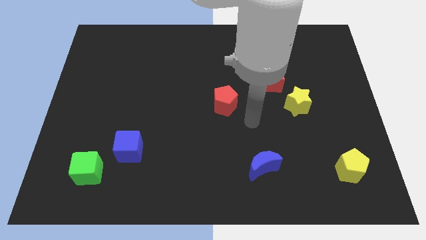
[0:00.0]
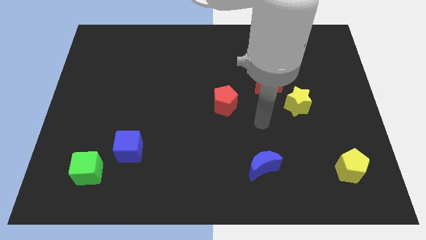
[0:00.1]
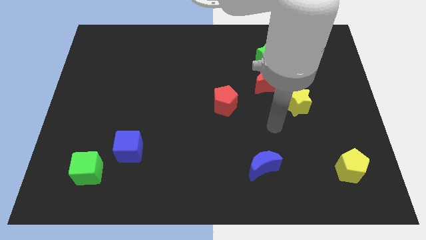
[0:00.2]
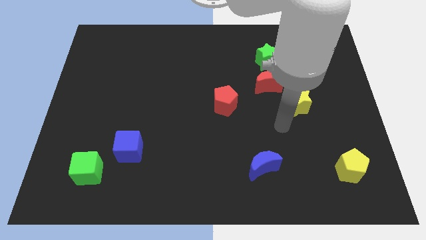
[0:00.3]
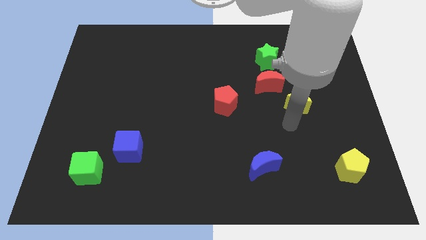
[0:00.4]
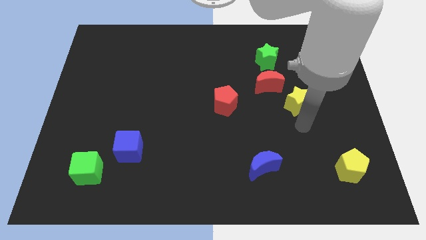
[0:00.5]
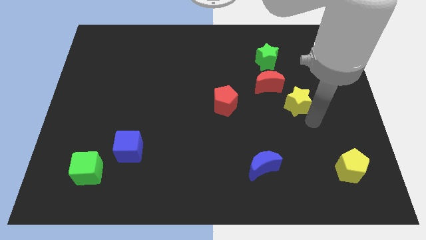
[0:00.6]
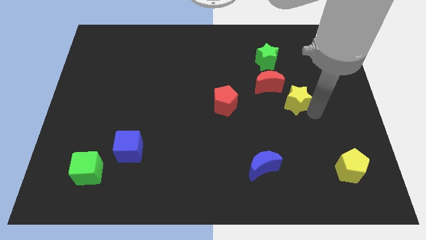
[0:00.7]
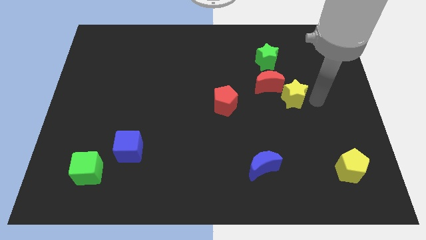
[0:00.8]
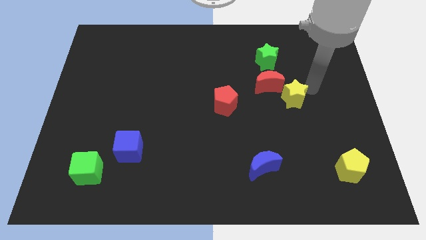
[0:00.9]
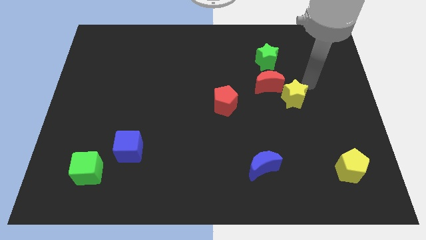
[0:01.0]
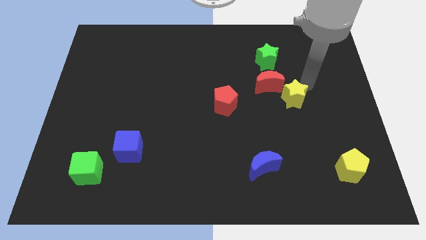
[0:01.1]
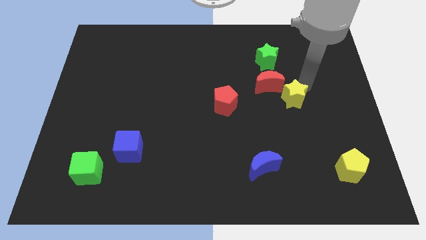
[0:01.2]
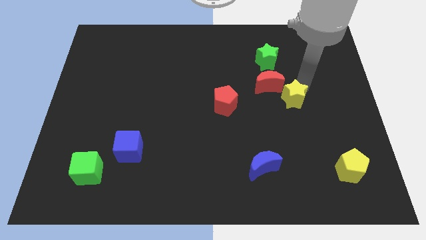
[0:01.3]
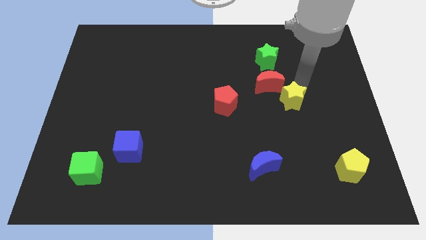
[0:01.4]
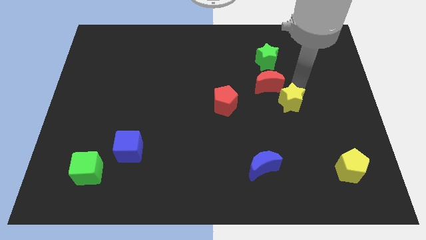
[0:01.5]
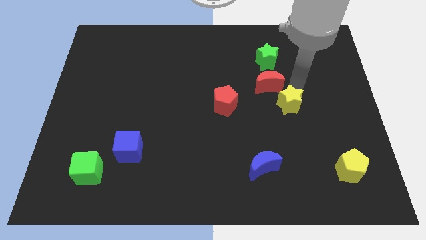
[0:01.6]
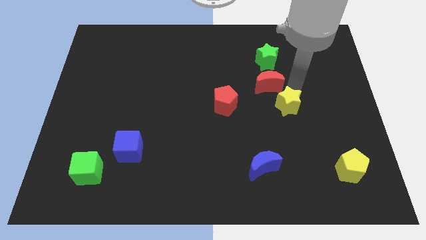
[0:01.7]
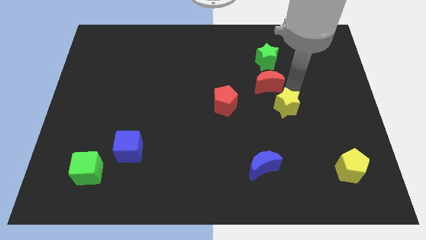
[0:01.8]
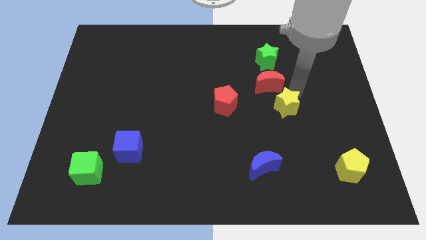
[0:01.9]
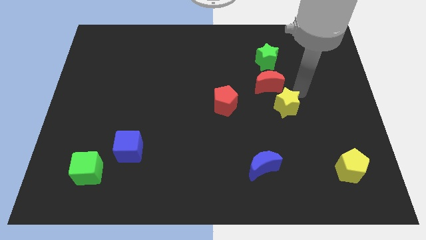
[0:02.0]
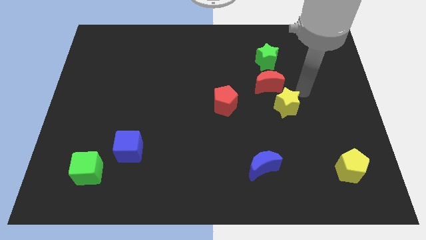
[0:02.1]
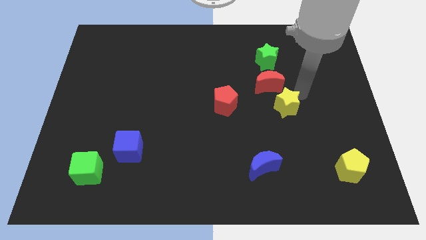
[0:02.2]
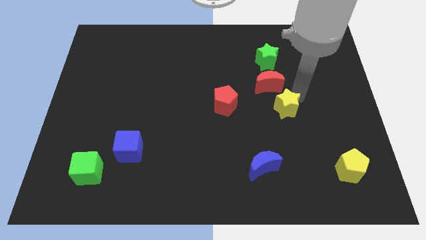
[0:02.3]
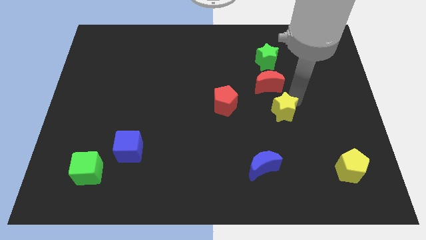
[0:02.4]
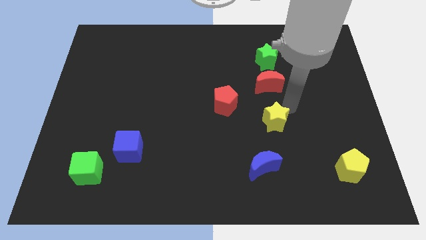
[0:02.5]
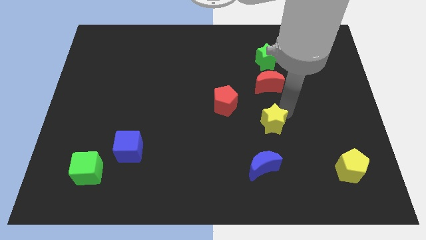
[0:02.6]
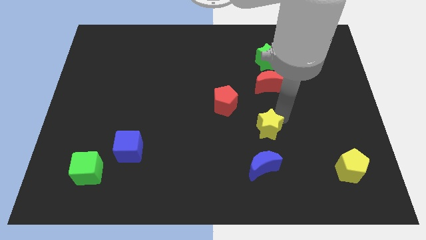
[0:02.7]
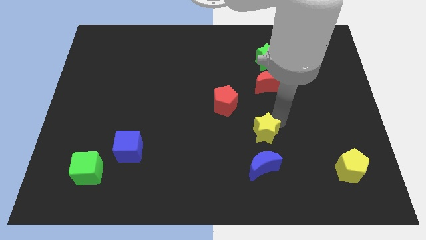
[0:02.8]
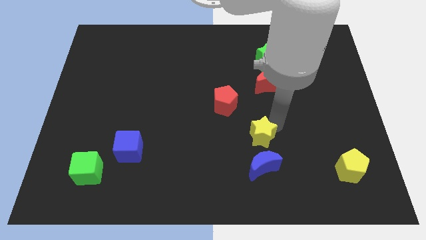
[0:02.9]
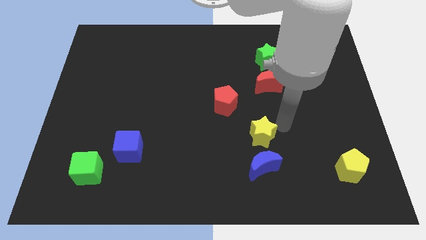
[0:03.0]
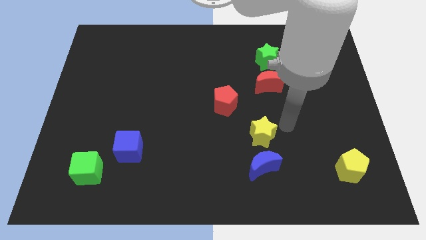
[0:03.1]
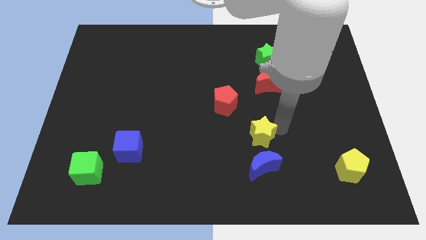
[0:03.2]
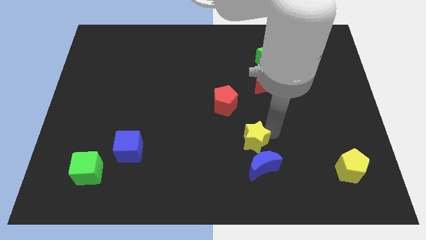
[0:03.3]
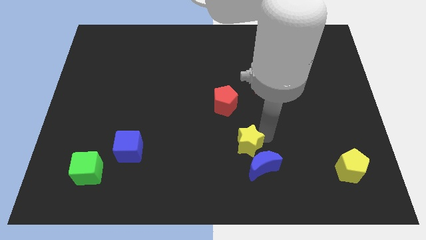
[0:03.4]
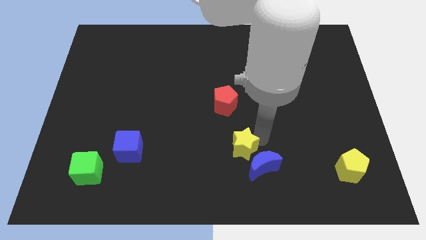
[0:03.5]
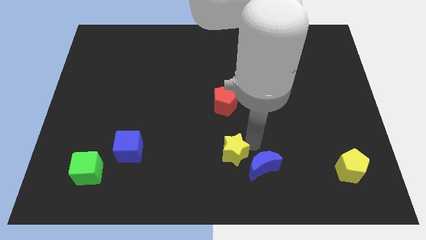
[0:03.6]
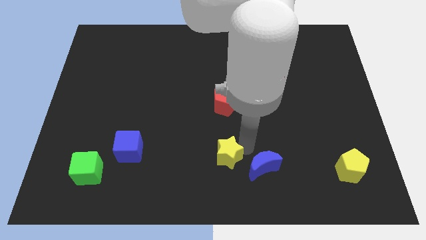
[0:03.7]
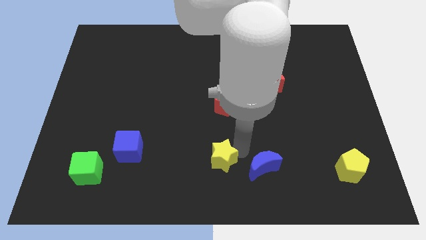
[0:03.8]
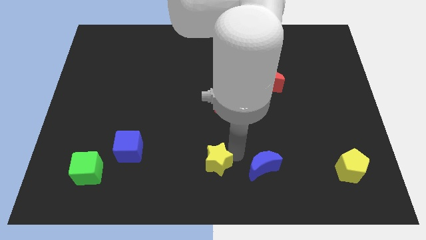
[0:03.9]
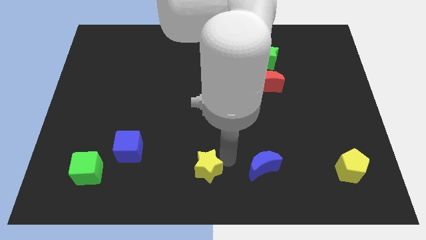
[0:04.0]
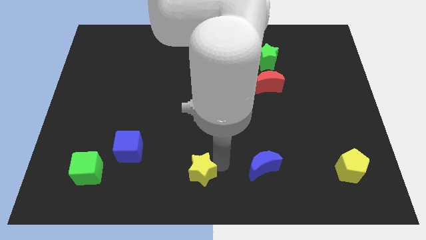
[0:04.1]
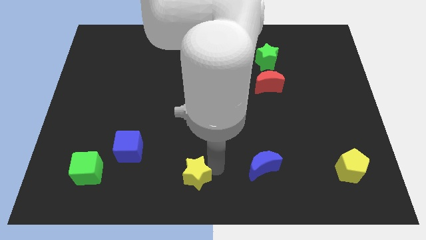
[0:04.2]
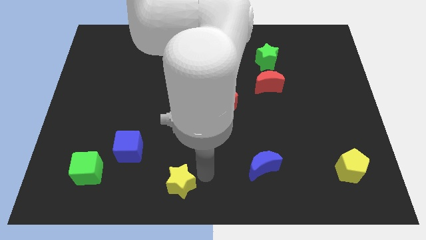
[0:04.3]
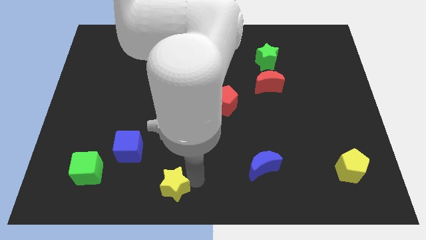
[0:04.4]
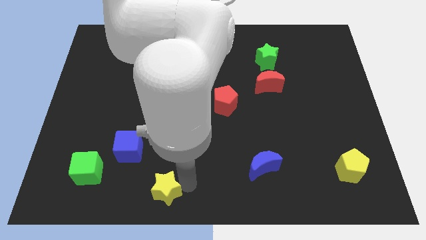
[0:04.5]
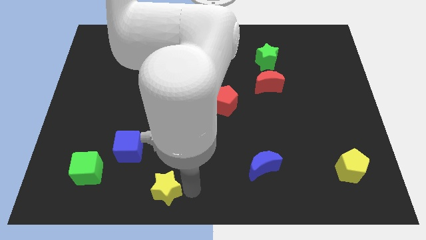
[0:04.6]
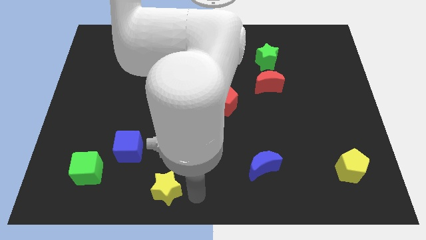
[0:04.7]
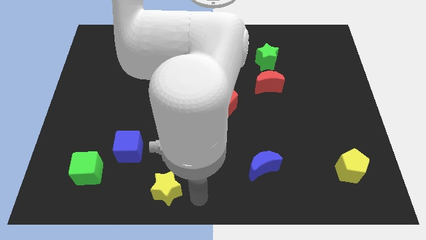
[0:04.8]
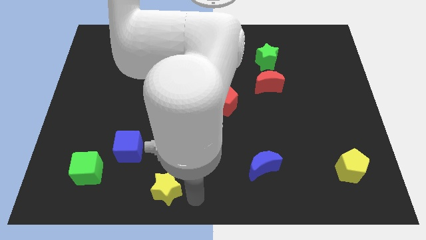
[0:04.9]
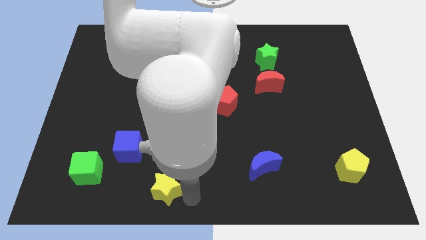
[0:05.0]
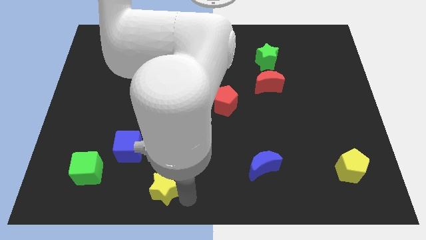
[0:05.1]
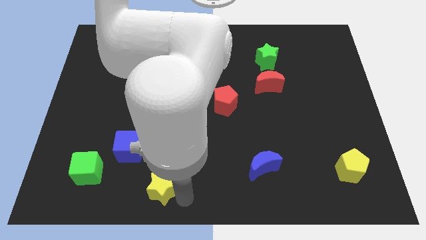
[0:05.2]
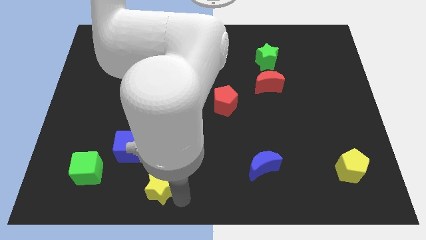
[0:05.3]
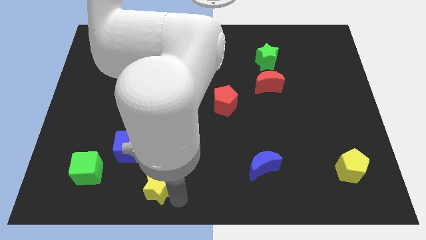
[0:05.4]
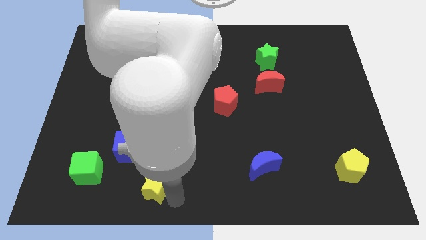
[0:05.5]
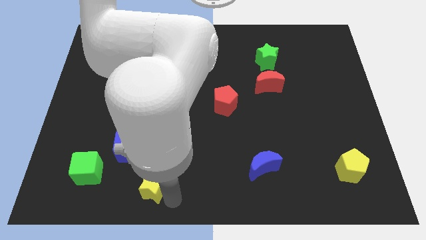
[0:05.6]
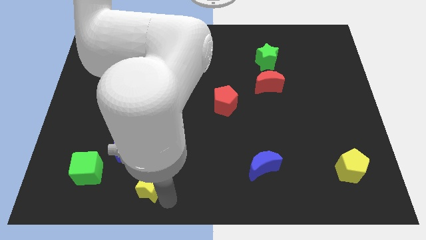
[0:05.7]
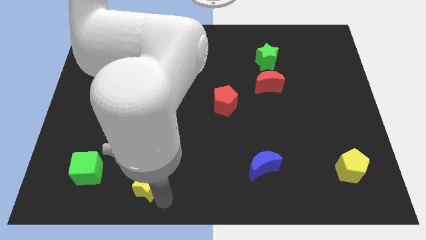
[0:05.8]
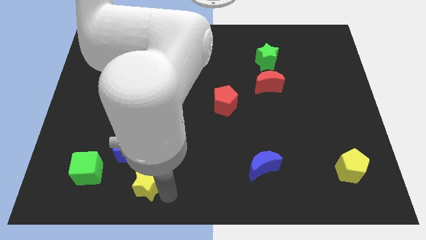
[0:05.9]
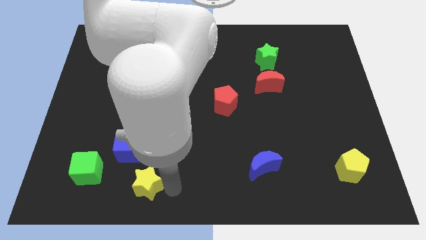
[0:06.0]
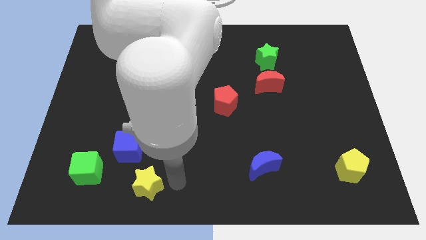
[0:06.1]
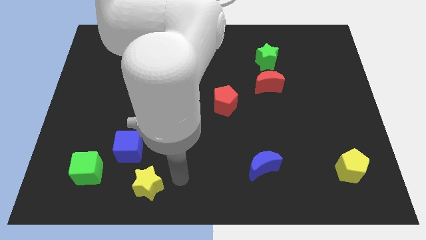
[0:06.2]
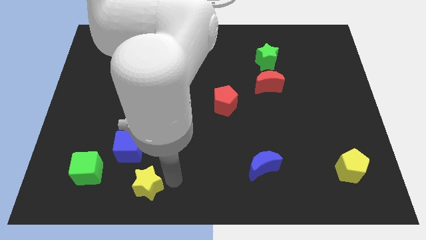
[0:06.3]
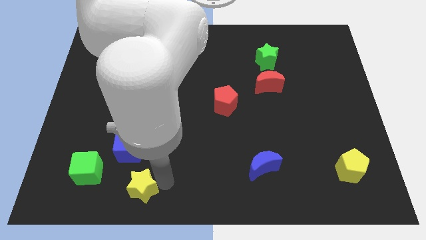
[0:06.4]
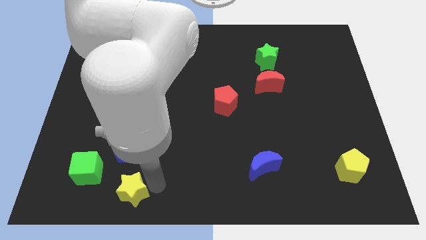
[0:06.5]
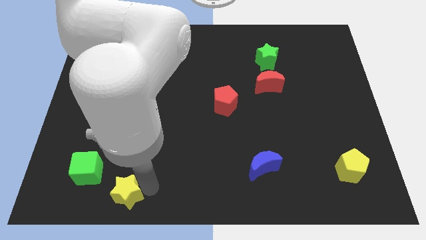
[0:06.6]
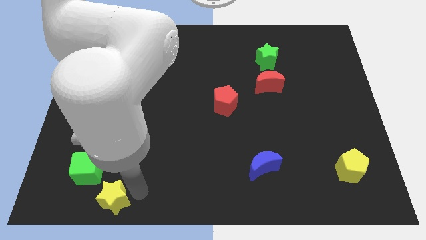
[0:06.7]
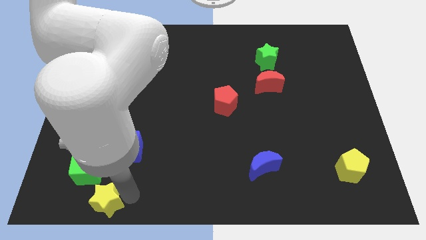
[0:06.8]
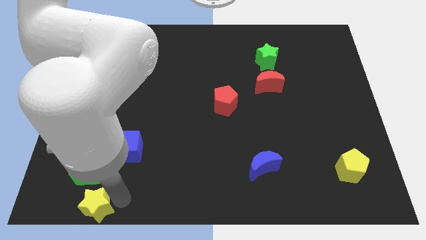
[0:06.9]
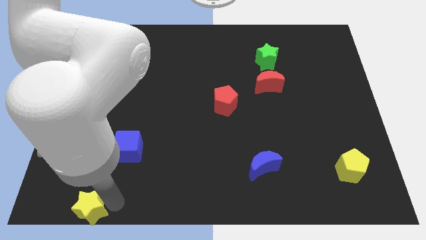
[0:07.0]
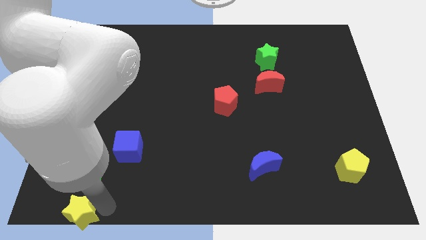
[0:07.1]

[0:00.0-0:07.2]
slide the yellow star to the bottom left

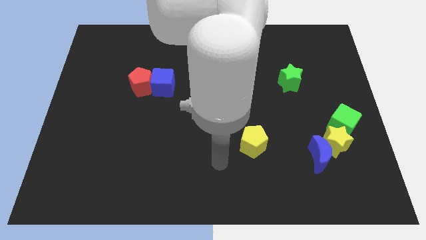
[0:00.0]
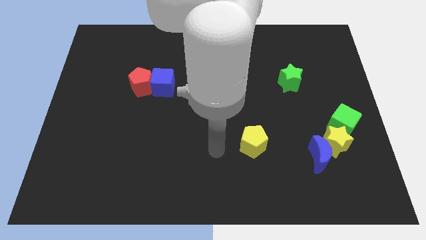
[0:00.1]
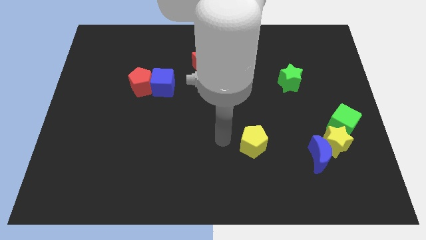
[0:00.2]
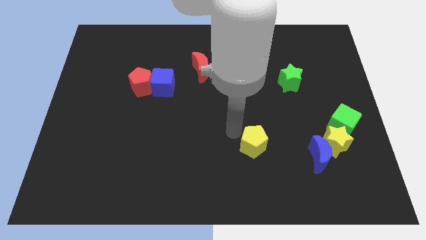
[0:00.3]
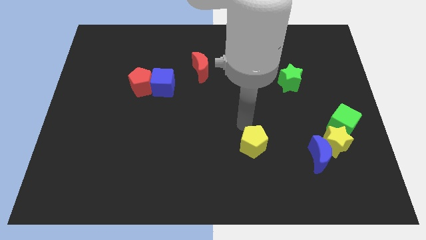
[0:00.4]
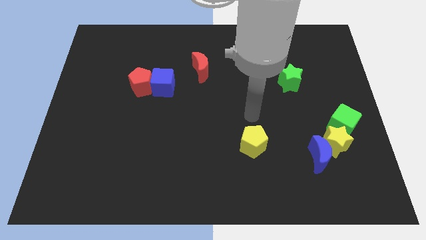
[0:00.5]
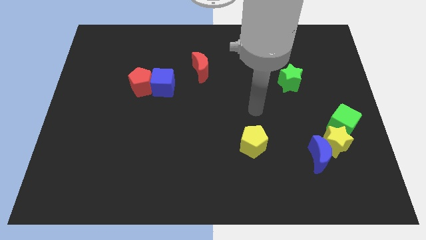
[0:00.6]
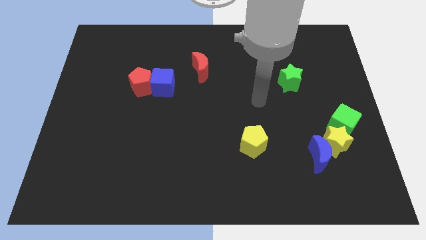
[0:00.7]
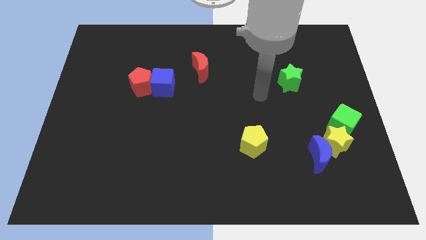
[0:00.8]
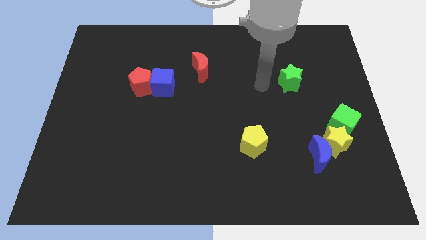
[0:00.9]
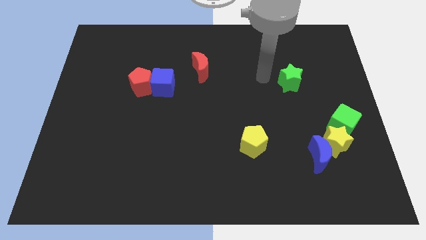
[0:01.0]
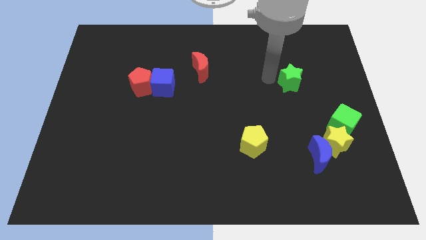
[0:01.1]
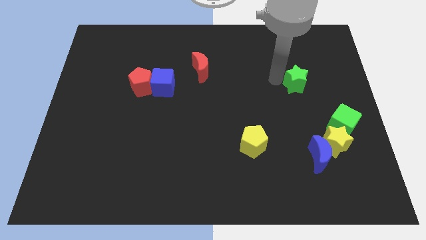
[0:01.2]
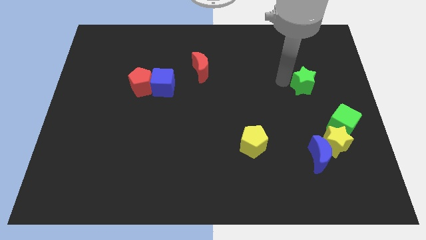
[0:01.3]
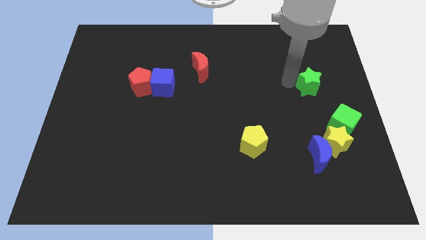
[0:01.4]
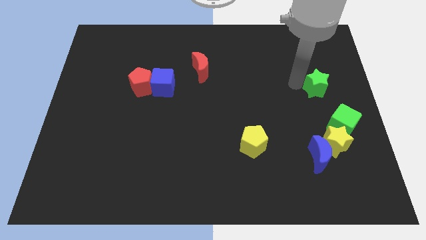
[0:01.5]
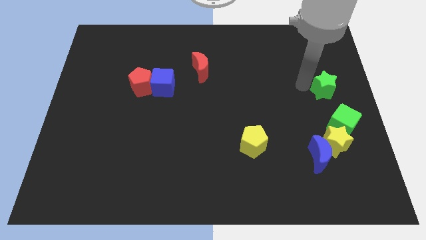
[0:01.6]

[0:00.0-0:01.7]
put the green star to the right side of the board
